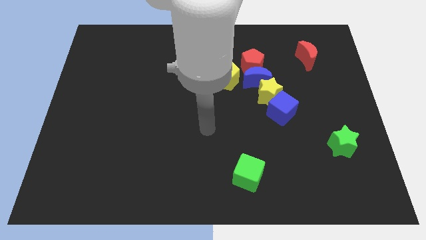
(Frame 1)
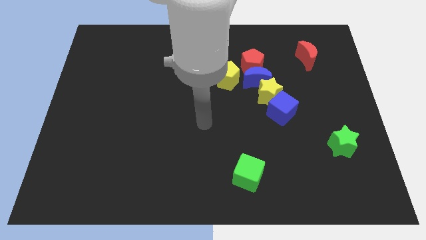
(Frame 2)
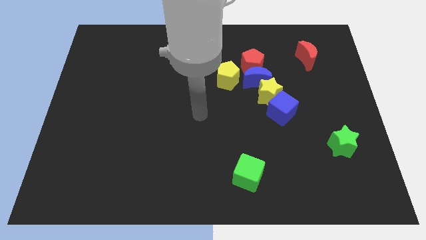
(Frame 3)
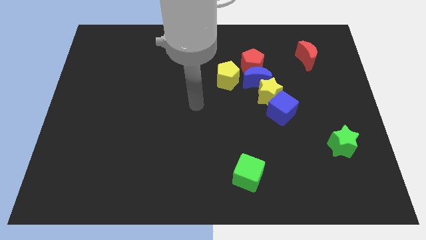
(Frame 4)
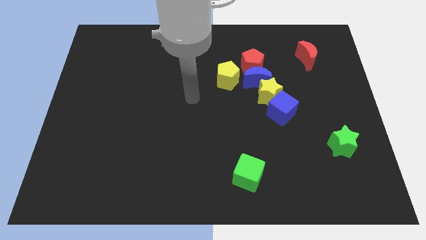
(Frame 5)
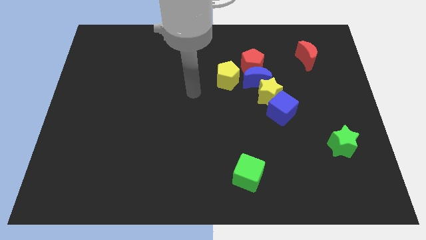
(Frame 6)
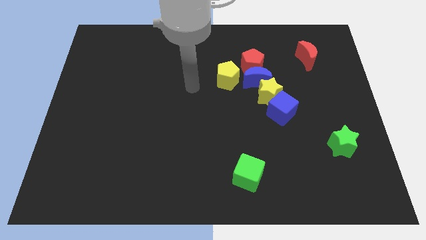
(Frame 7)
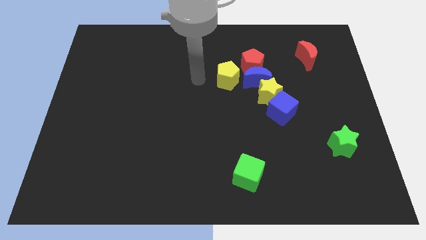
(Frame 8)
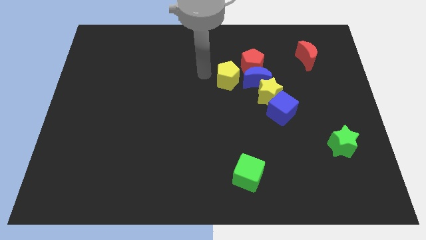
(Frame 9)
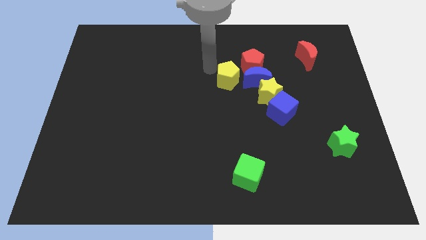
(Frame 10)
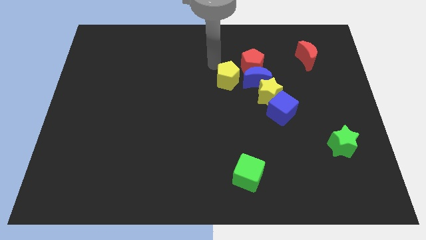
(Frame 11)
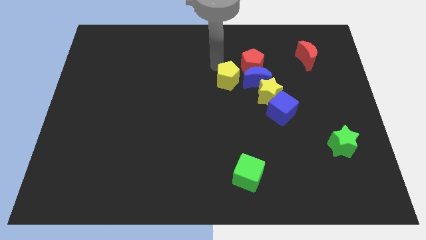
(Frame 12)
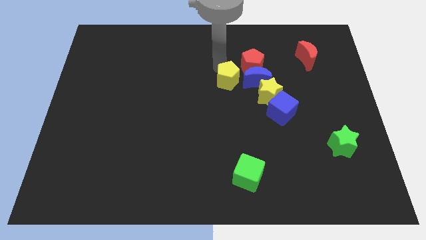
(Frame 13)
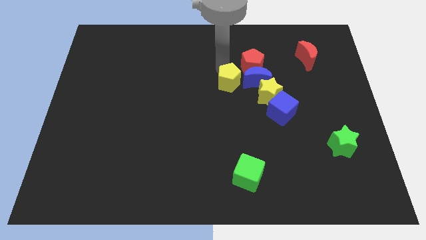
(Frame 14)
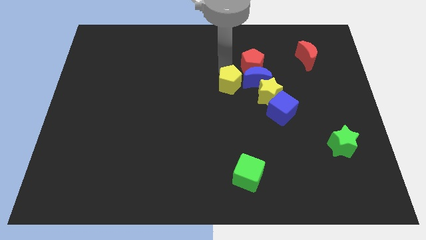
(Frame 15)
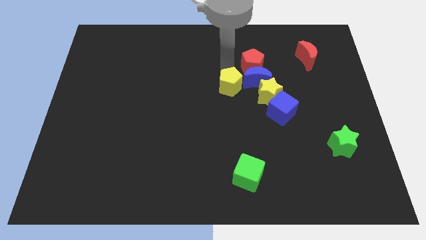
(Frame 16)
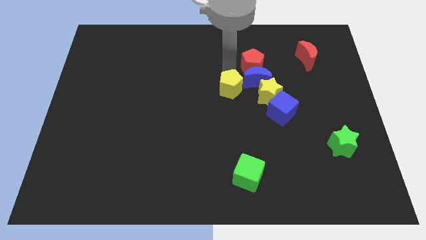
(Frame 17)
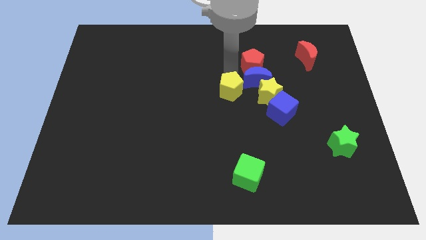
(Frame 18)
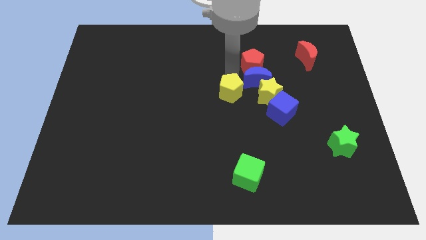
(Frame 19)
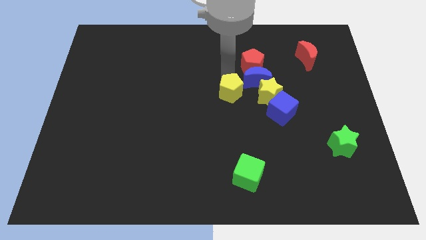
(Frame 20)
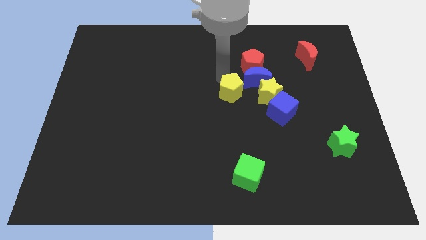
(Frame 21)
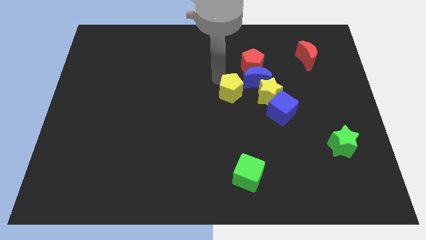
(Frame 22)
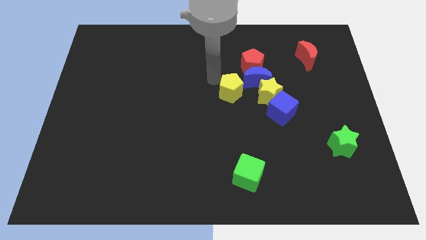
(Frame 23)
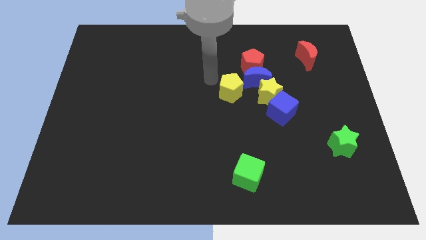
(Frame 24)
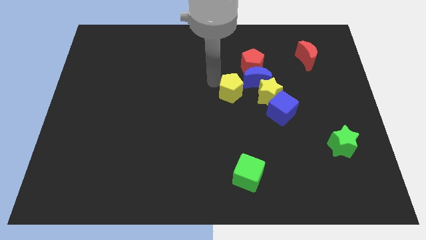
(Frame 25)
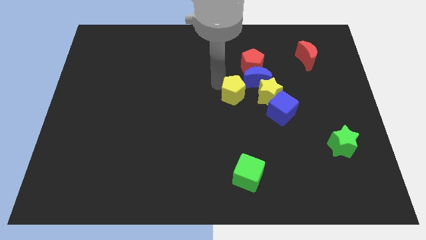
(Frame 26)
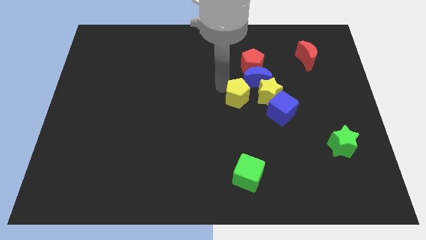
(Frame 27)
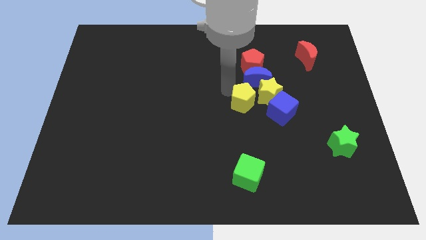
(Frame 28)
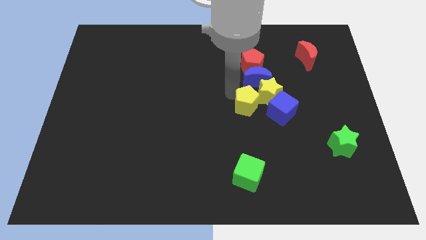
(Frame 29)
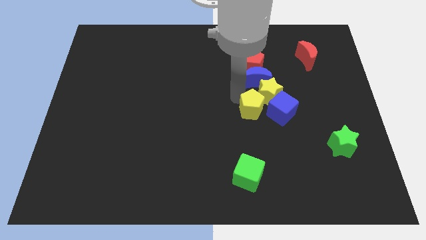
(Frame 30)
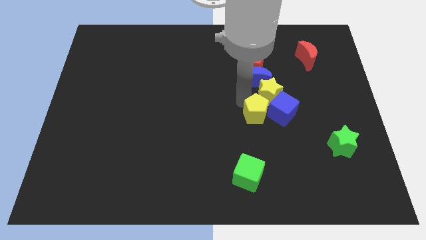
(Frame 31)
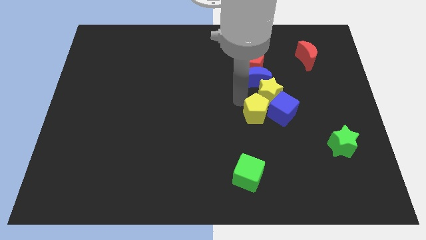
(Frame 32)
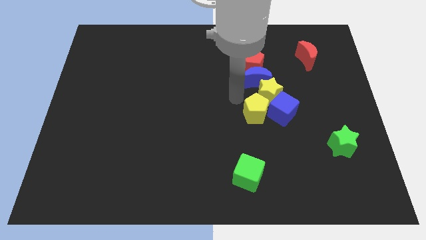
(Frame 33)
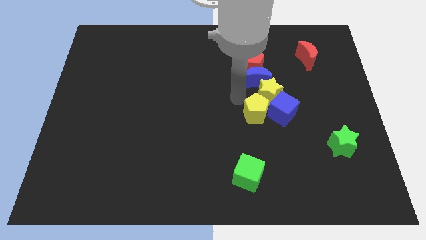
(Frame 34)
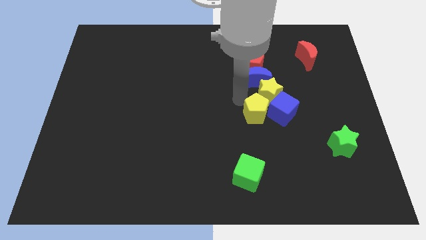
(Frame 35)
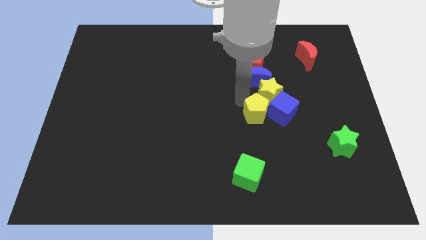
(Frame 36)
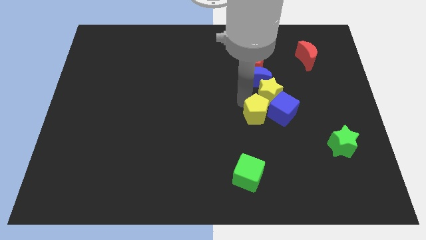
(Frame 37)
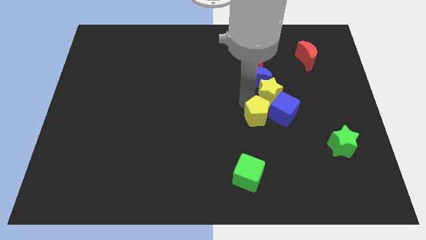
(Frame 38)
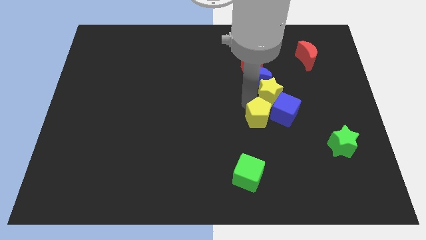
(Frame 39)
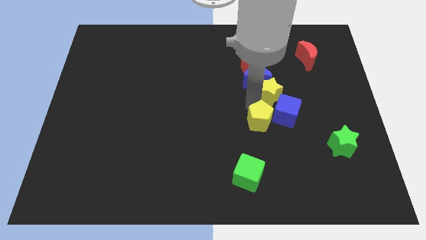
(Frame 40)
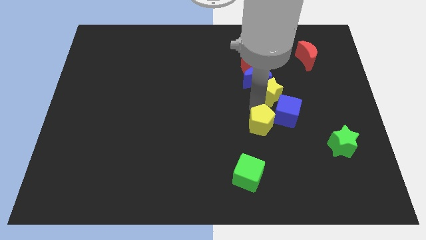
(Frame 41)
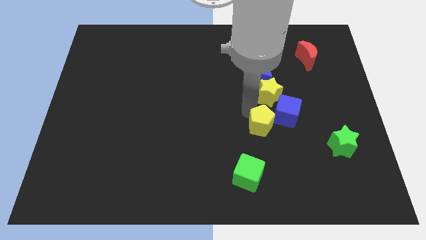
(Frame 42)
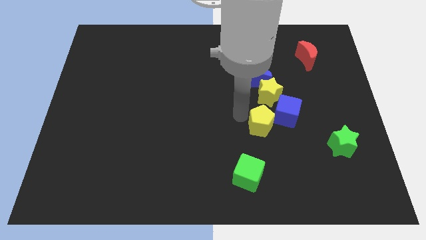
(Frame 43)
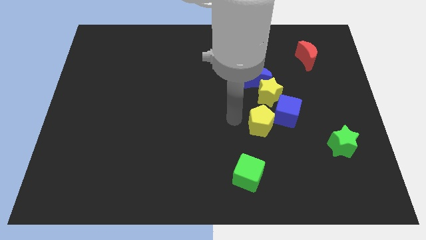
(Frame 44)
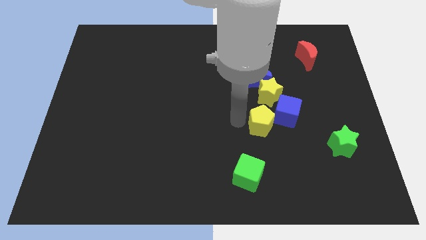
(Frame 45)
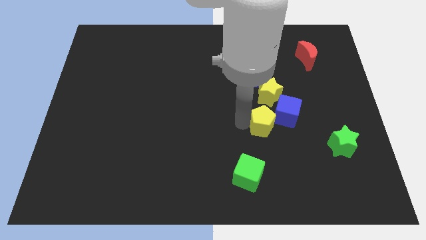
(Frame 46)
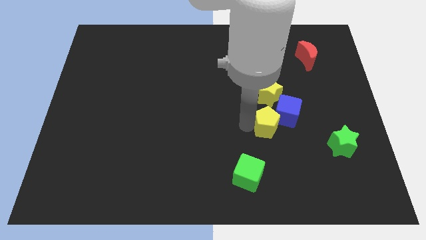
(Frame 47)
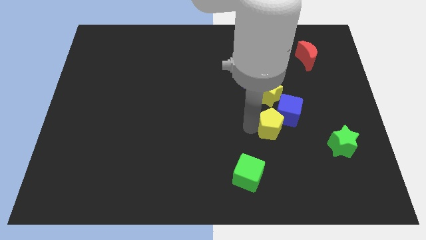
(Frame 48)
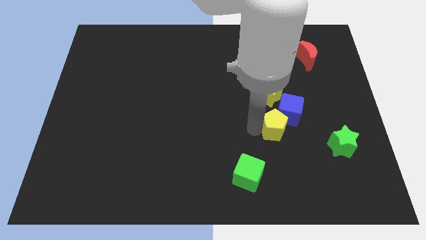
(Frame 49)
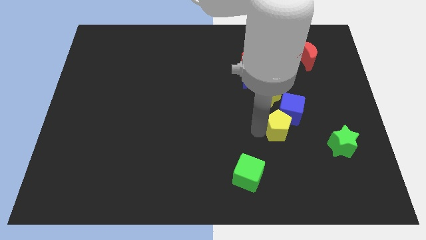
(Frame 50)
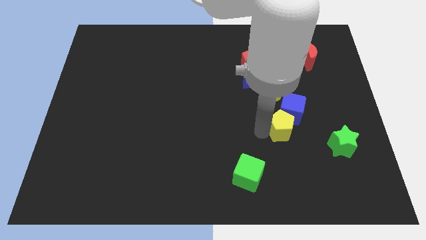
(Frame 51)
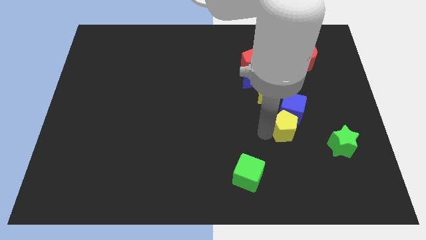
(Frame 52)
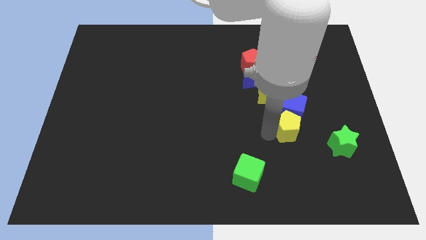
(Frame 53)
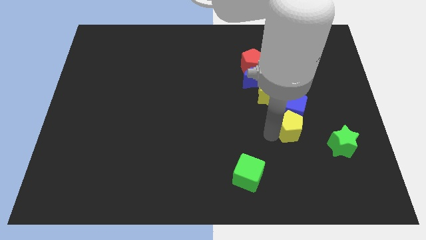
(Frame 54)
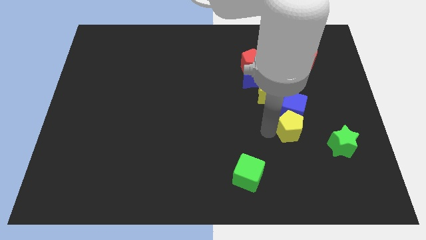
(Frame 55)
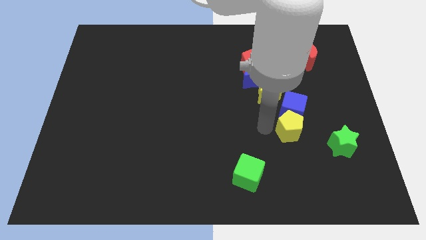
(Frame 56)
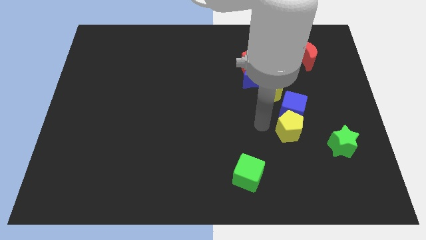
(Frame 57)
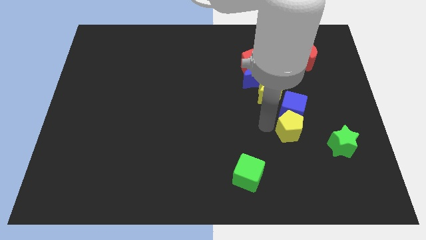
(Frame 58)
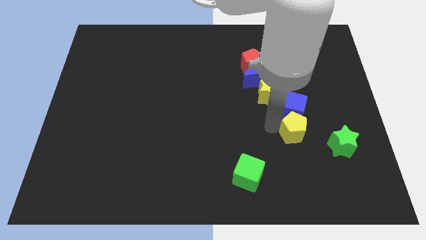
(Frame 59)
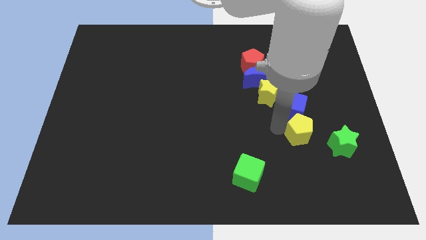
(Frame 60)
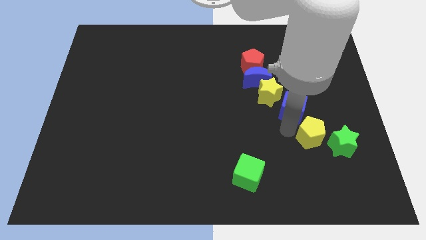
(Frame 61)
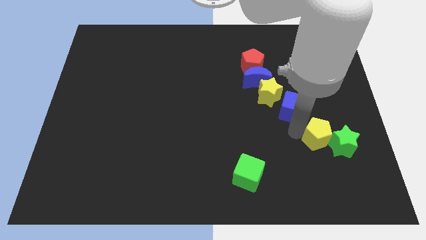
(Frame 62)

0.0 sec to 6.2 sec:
move the yellow pentagon next to the green star
